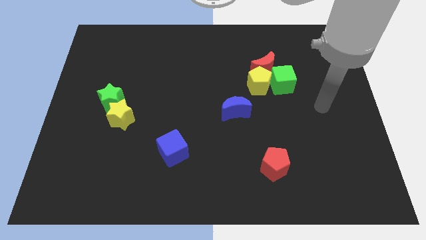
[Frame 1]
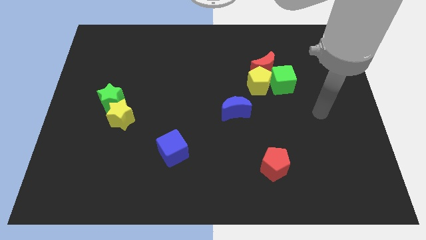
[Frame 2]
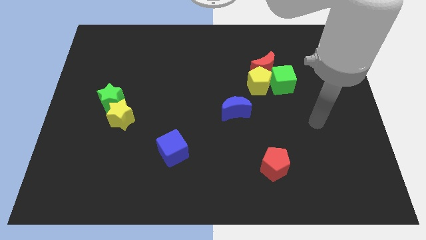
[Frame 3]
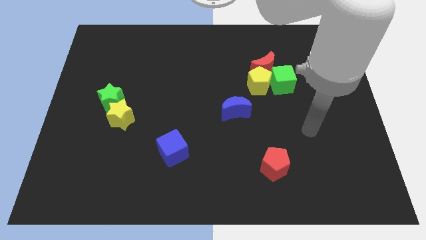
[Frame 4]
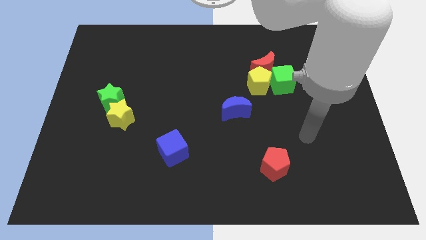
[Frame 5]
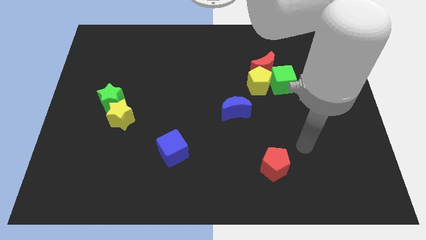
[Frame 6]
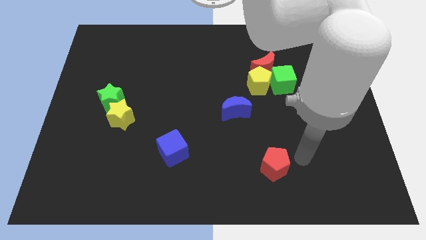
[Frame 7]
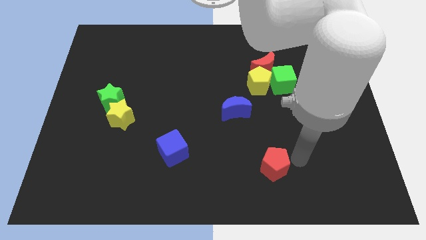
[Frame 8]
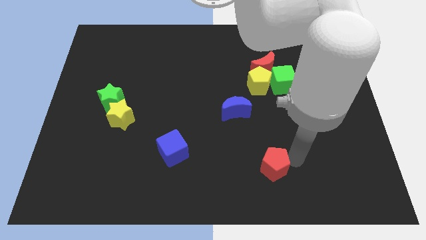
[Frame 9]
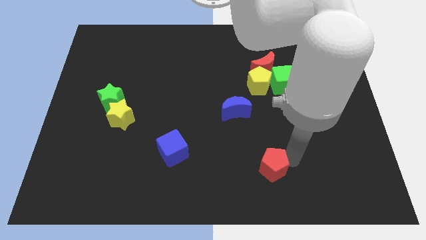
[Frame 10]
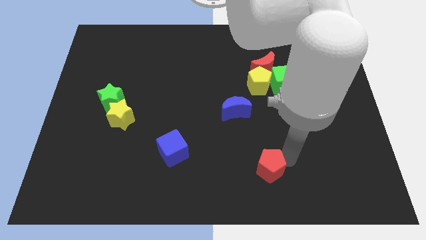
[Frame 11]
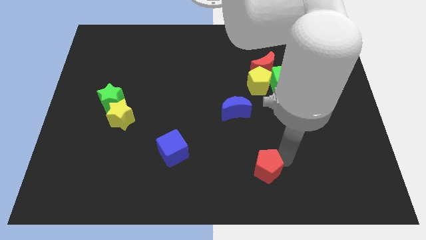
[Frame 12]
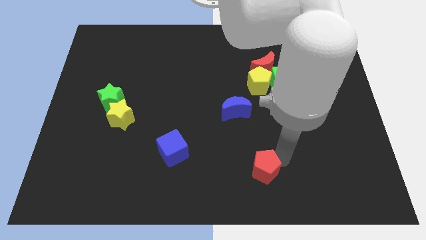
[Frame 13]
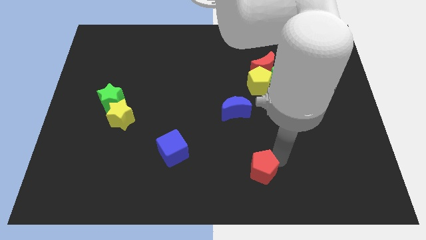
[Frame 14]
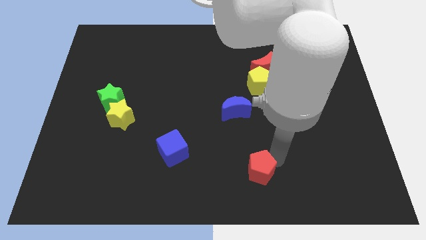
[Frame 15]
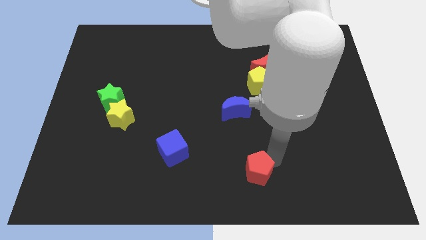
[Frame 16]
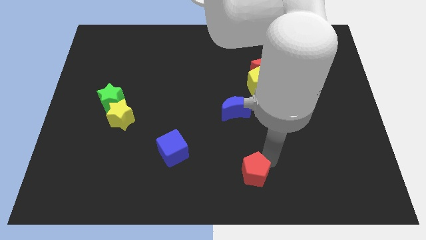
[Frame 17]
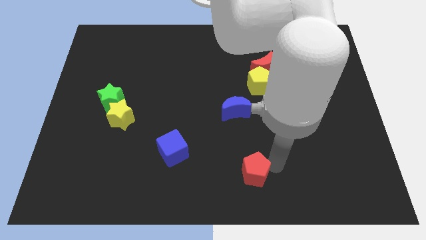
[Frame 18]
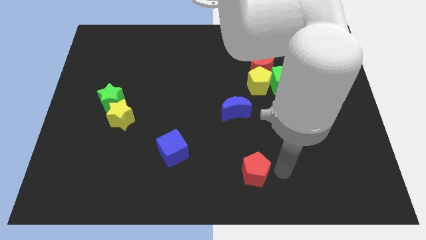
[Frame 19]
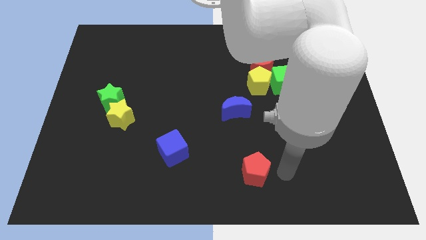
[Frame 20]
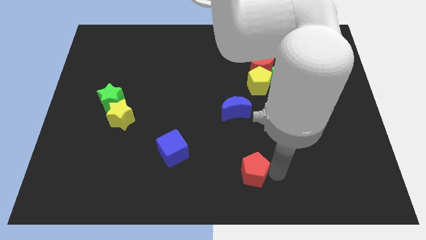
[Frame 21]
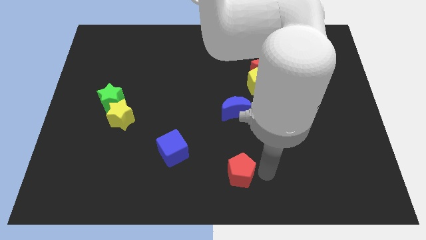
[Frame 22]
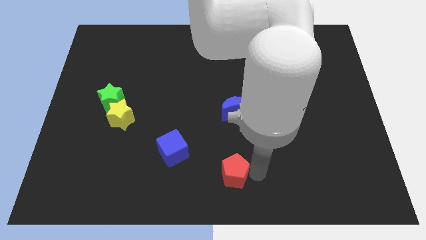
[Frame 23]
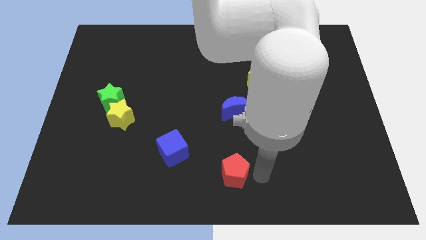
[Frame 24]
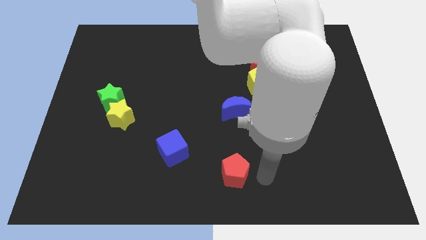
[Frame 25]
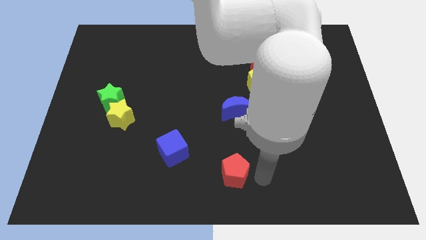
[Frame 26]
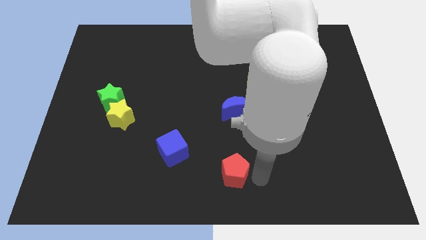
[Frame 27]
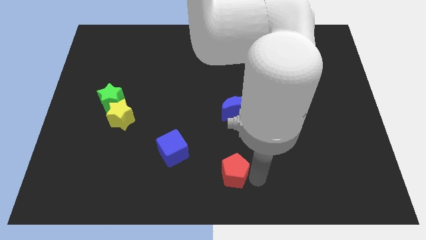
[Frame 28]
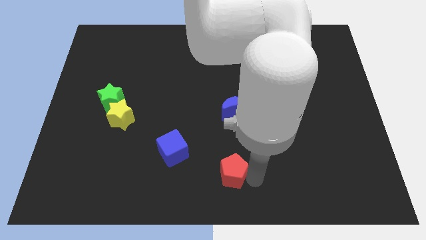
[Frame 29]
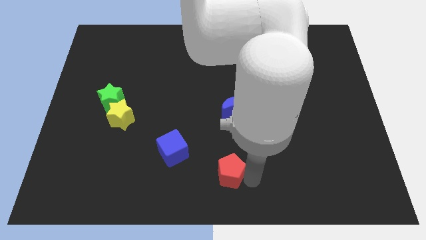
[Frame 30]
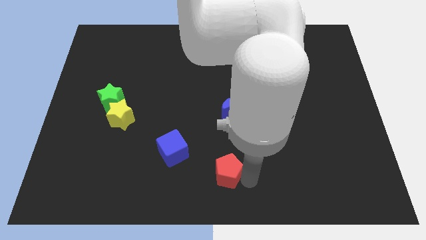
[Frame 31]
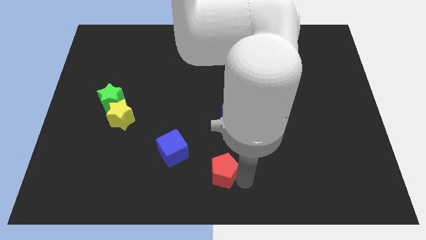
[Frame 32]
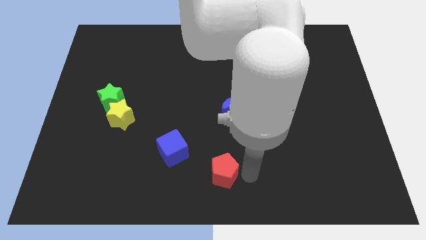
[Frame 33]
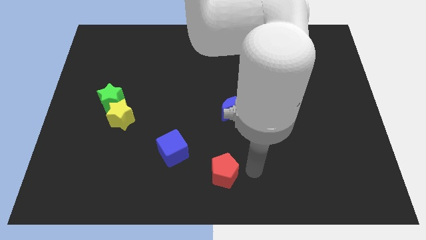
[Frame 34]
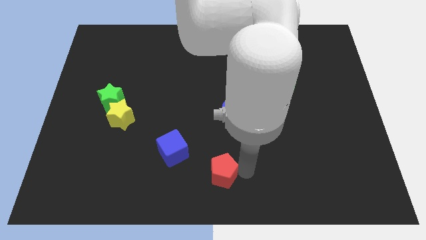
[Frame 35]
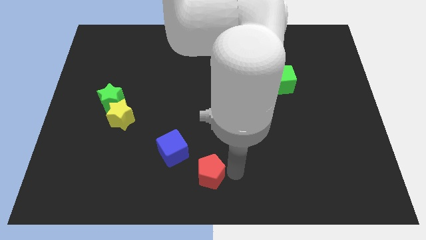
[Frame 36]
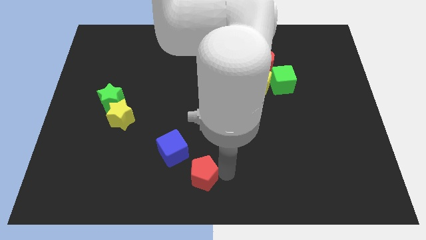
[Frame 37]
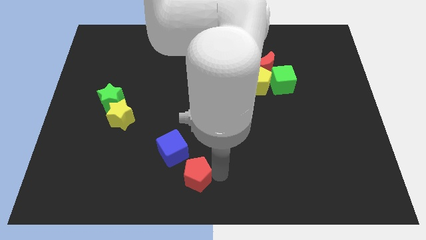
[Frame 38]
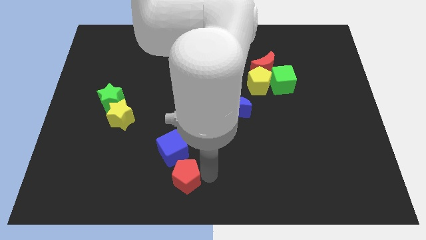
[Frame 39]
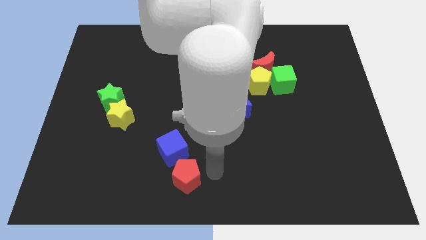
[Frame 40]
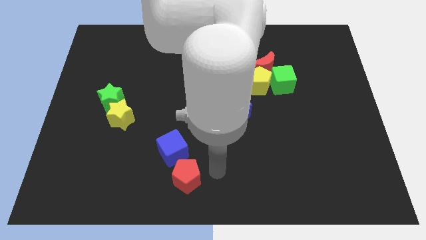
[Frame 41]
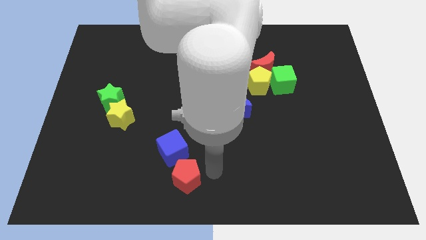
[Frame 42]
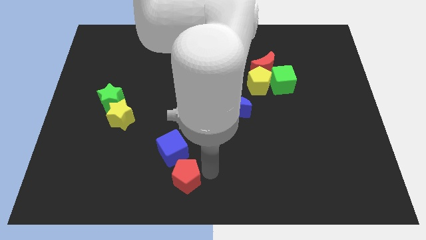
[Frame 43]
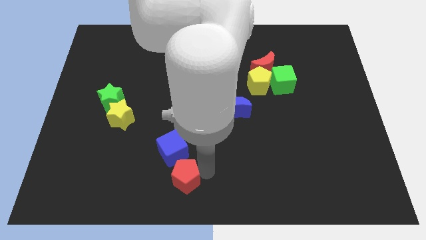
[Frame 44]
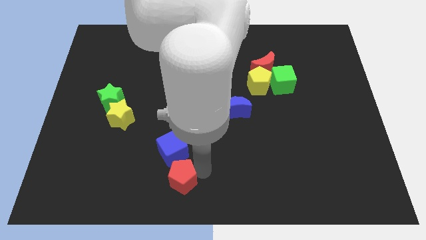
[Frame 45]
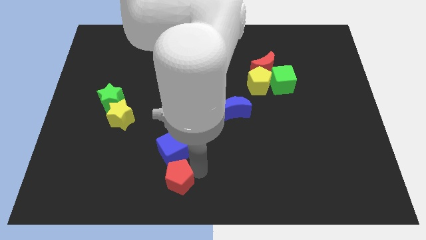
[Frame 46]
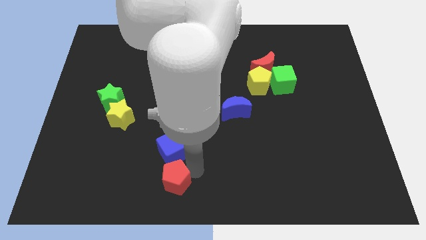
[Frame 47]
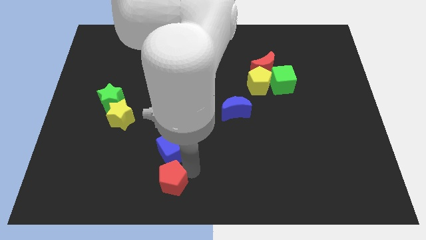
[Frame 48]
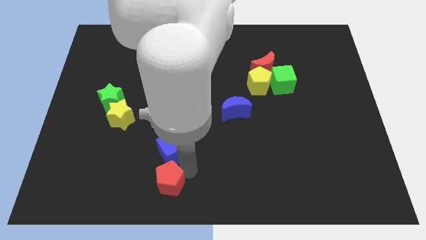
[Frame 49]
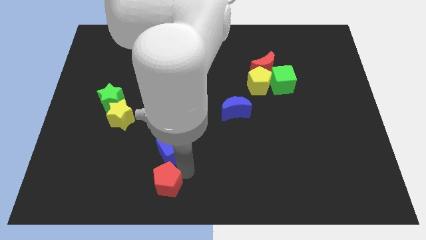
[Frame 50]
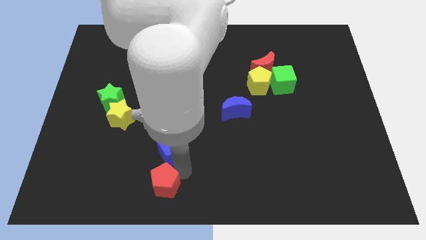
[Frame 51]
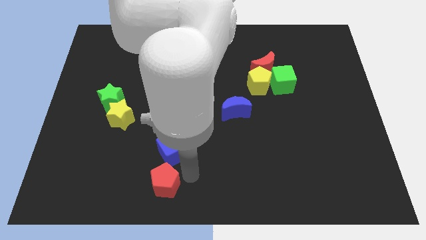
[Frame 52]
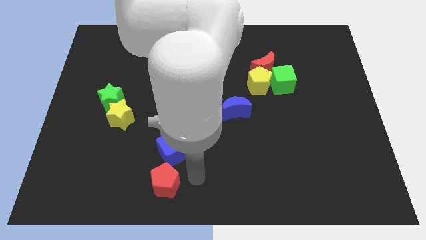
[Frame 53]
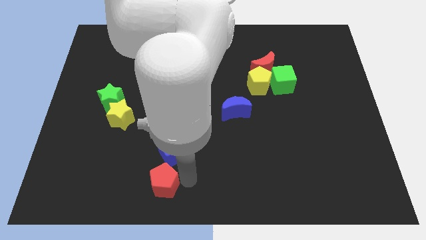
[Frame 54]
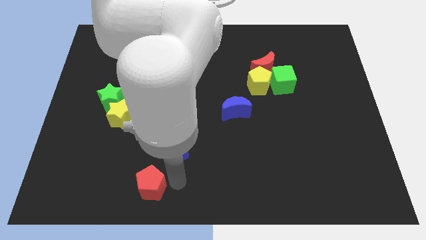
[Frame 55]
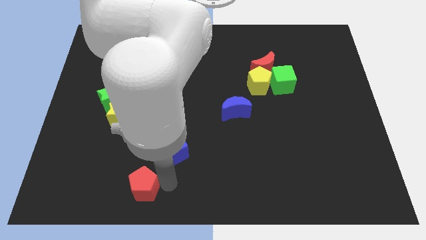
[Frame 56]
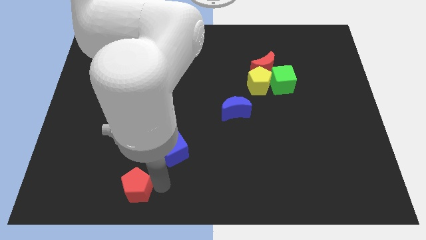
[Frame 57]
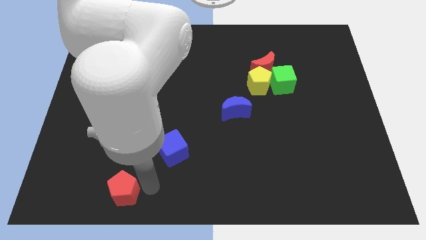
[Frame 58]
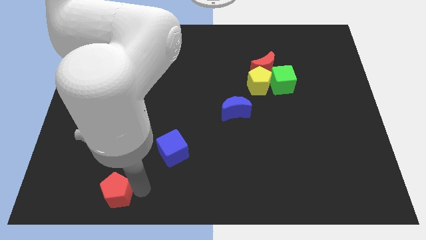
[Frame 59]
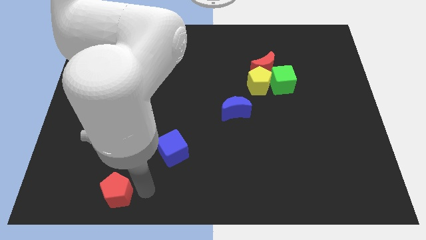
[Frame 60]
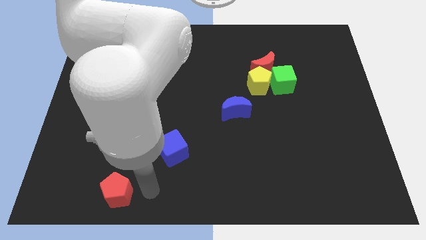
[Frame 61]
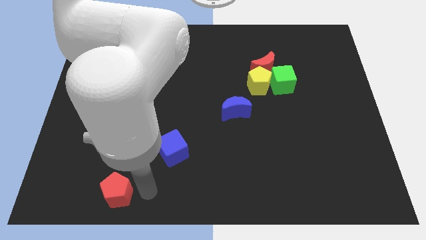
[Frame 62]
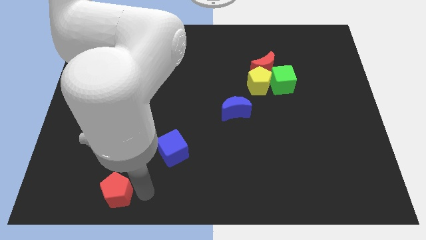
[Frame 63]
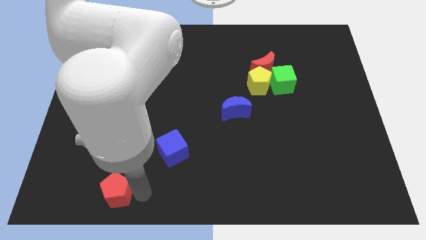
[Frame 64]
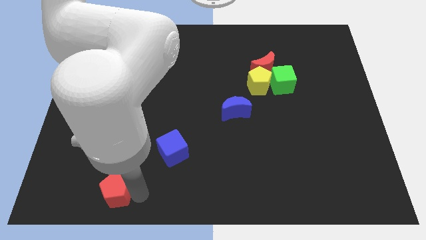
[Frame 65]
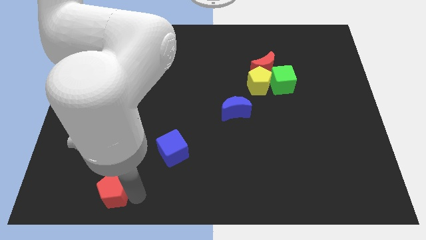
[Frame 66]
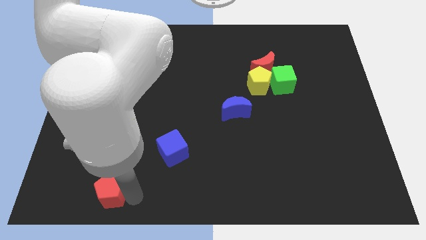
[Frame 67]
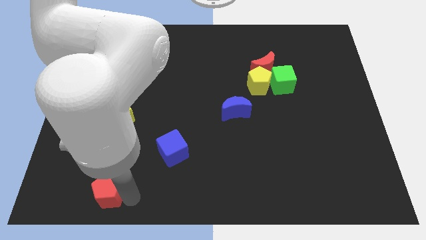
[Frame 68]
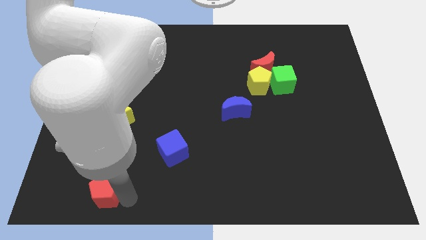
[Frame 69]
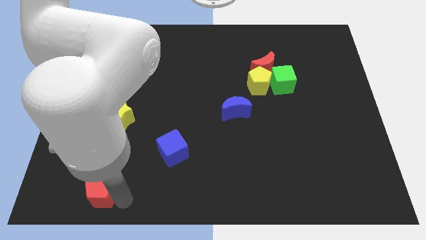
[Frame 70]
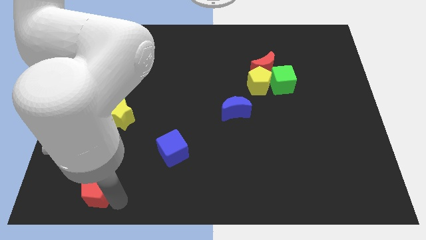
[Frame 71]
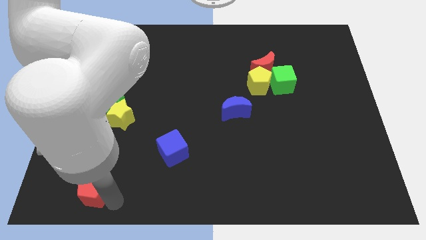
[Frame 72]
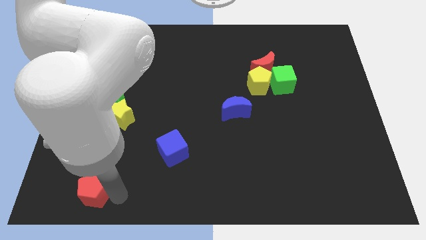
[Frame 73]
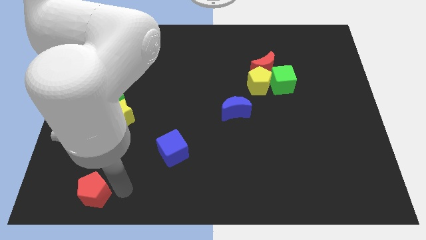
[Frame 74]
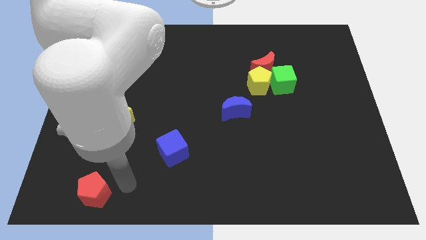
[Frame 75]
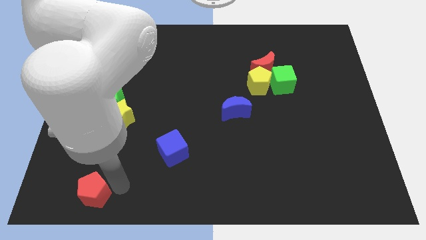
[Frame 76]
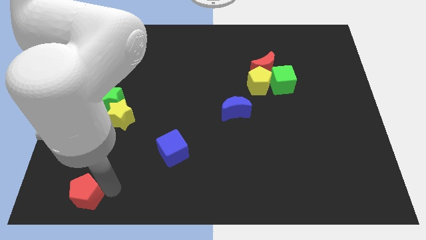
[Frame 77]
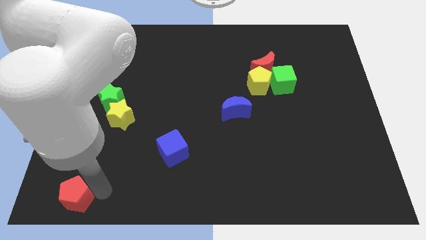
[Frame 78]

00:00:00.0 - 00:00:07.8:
put the red pentagon to the bottom left corner

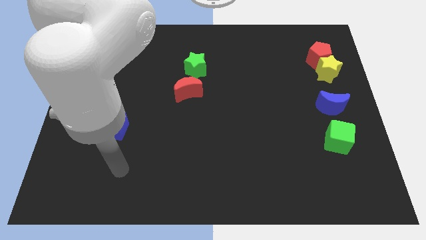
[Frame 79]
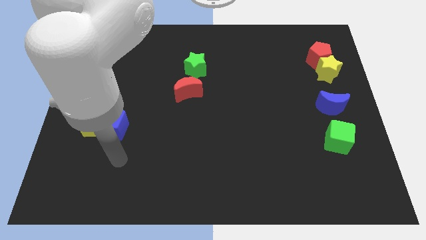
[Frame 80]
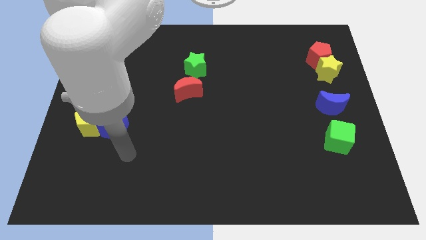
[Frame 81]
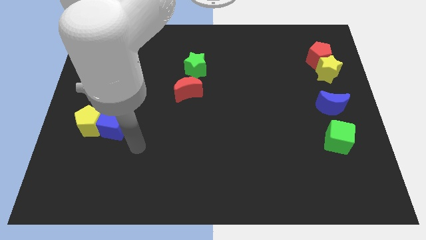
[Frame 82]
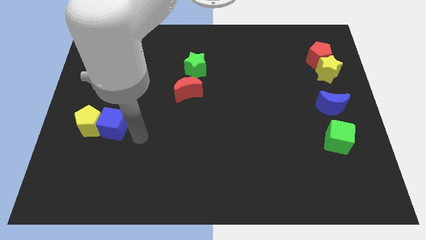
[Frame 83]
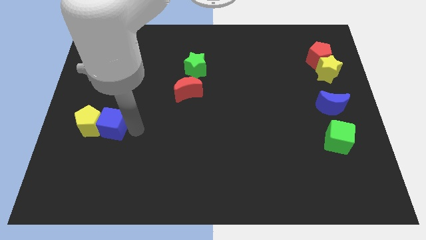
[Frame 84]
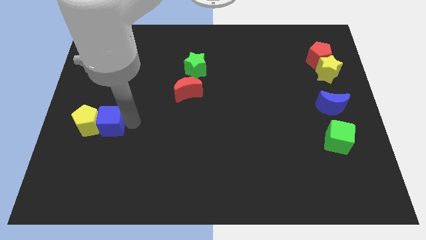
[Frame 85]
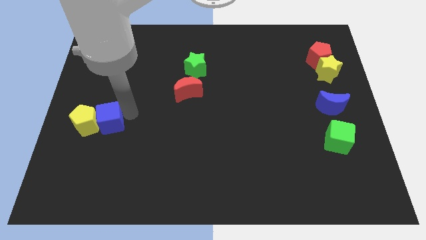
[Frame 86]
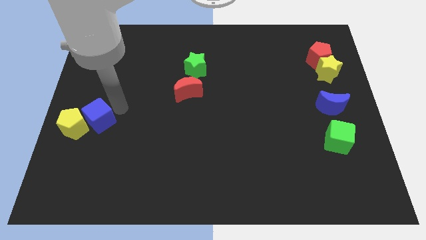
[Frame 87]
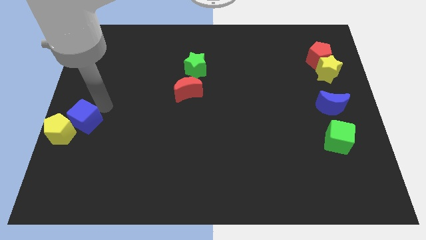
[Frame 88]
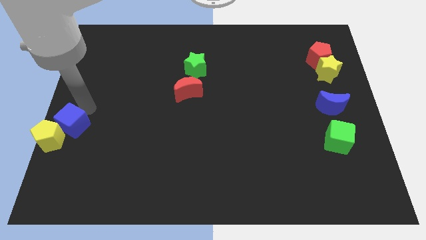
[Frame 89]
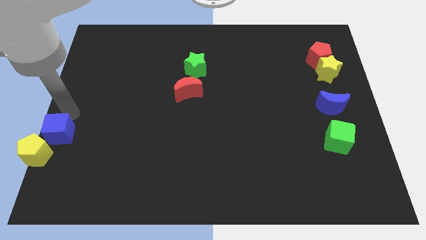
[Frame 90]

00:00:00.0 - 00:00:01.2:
put the yellow pentagon to the bottom left of the board
